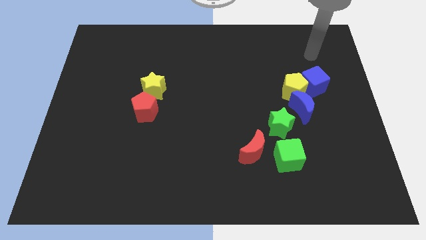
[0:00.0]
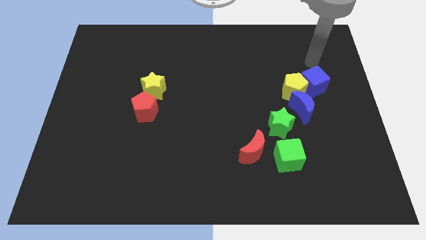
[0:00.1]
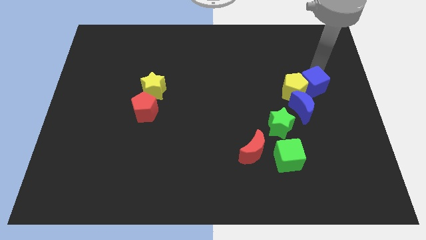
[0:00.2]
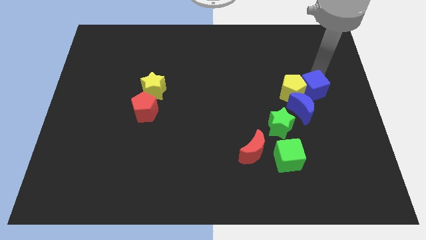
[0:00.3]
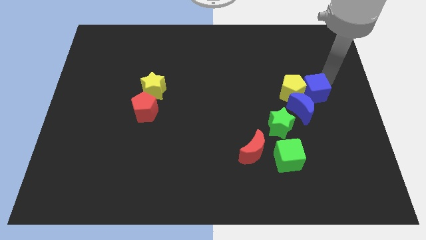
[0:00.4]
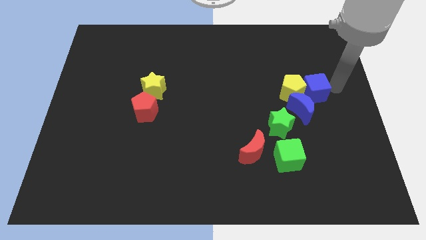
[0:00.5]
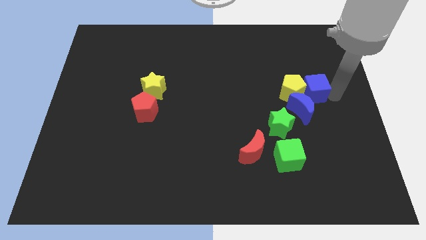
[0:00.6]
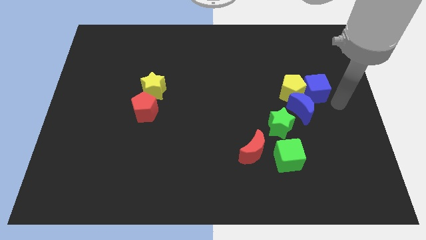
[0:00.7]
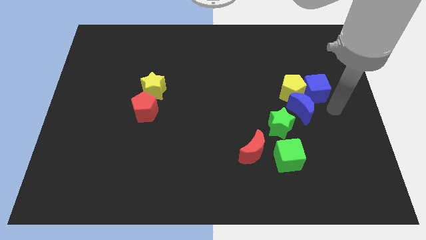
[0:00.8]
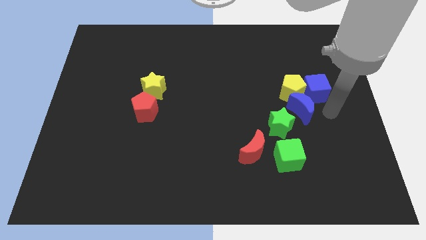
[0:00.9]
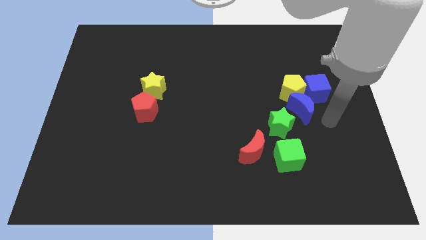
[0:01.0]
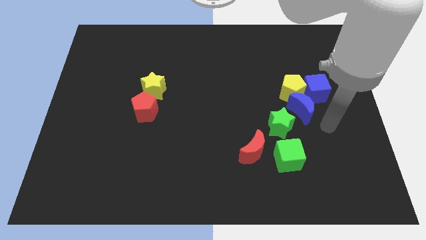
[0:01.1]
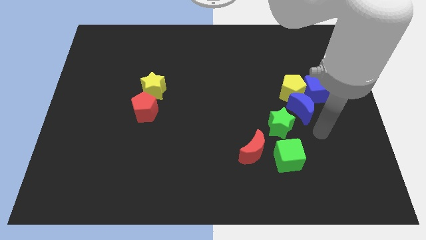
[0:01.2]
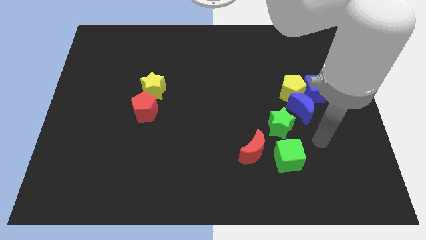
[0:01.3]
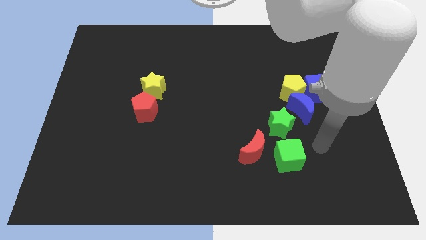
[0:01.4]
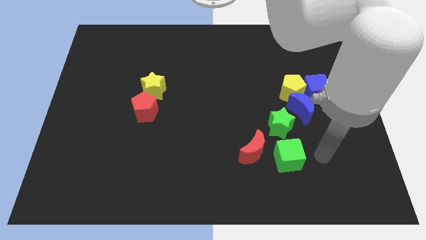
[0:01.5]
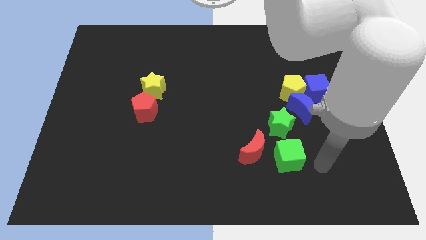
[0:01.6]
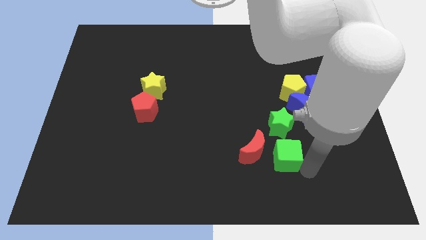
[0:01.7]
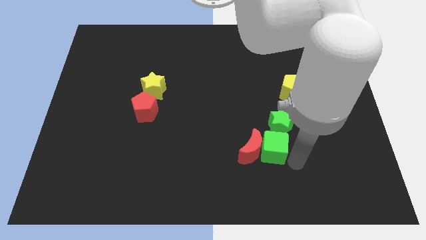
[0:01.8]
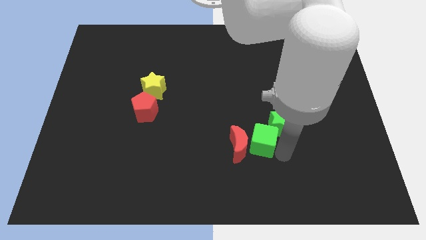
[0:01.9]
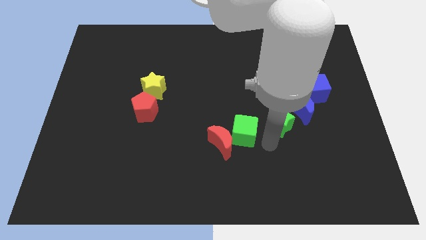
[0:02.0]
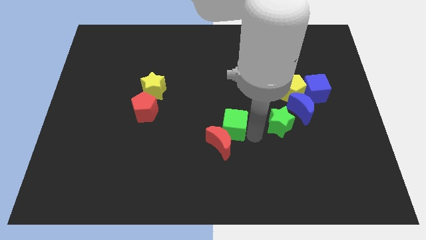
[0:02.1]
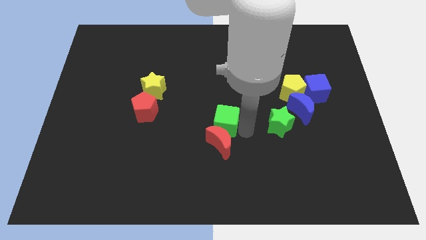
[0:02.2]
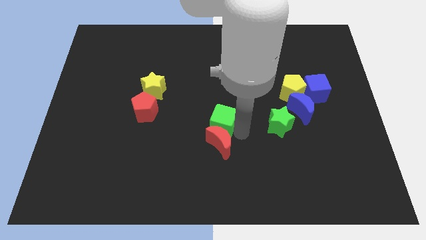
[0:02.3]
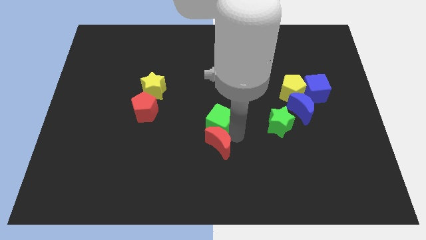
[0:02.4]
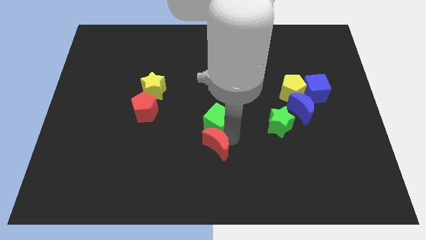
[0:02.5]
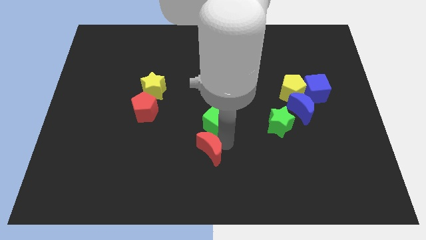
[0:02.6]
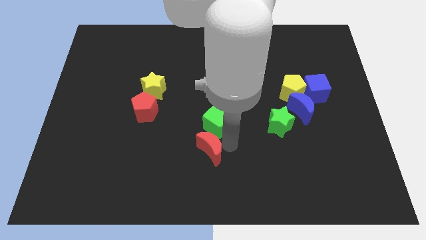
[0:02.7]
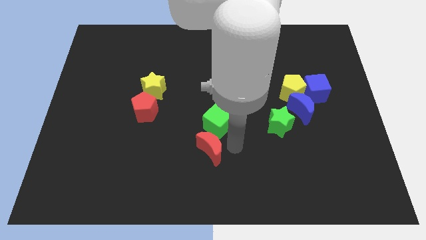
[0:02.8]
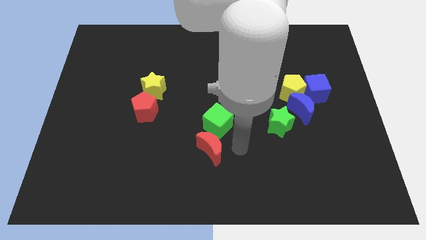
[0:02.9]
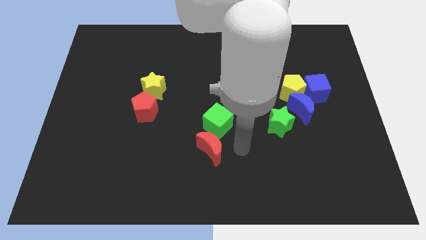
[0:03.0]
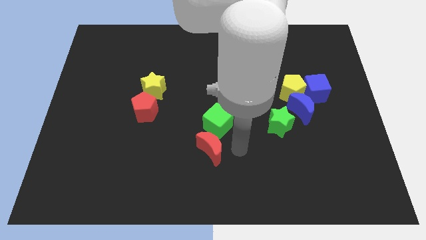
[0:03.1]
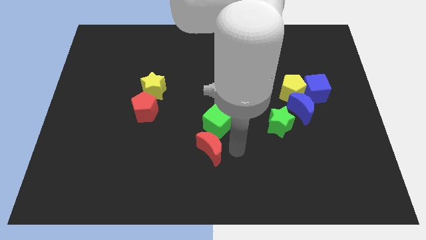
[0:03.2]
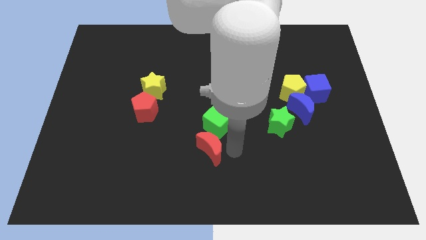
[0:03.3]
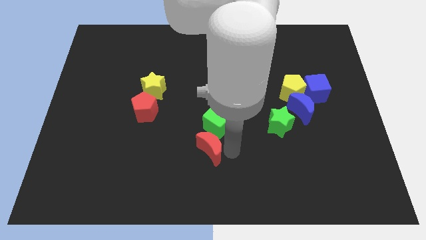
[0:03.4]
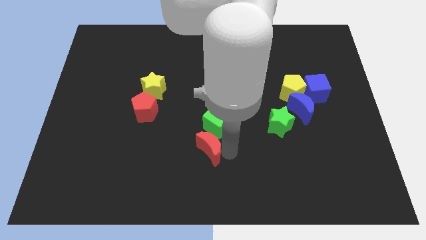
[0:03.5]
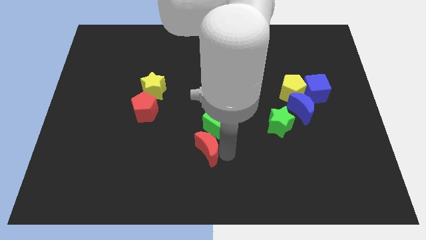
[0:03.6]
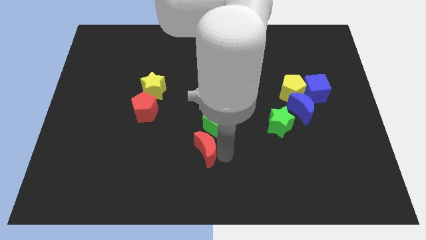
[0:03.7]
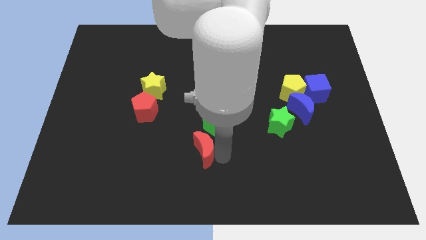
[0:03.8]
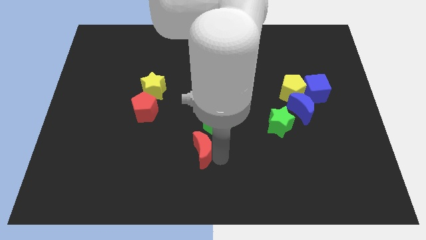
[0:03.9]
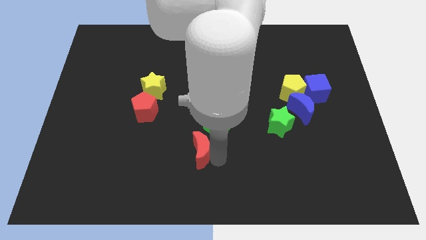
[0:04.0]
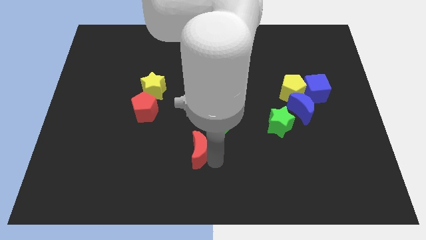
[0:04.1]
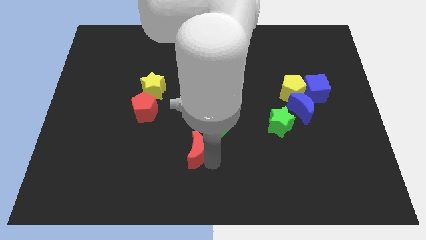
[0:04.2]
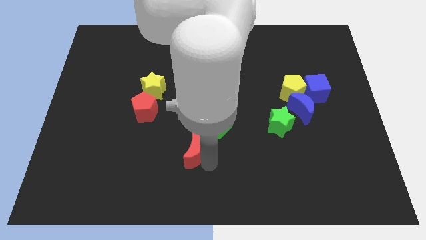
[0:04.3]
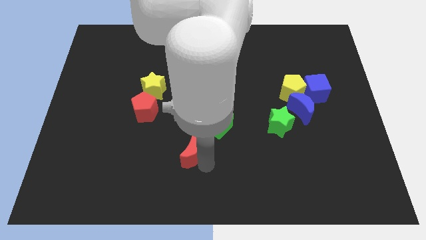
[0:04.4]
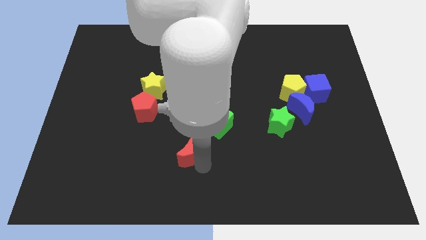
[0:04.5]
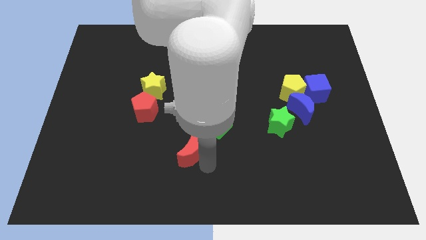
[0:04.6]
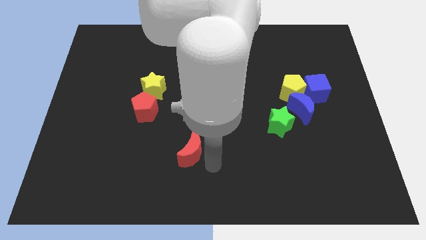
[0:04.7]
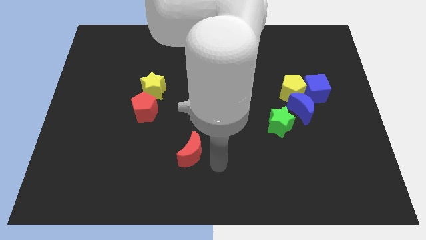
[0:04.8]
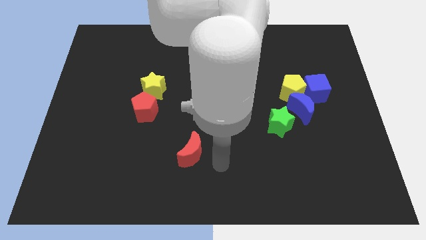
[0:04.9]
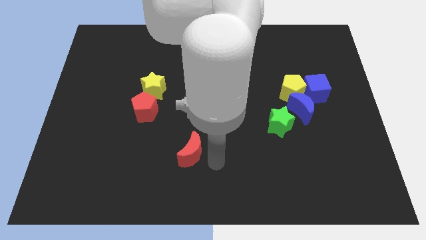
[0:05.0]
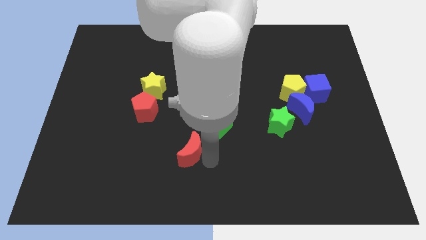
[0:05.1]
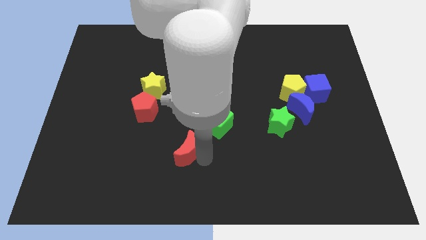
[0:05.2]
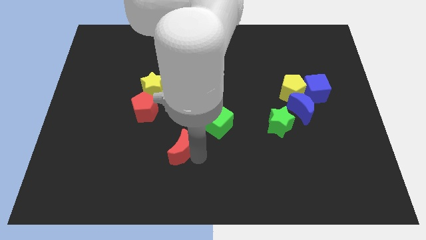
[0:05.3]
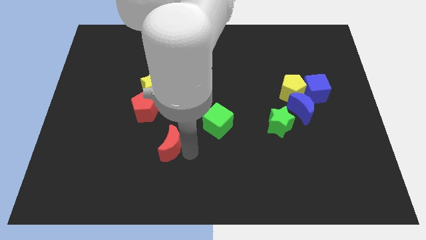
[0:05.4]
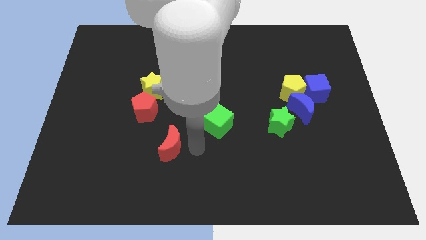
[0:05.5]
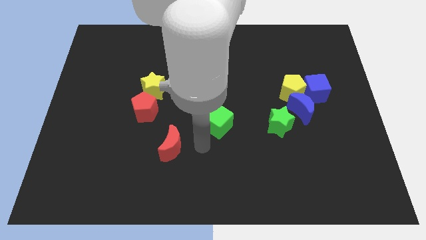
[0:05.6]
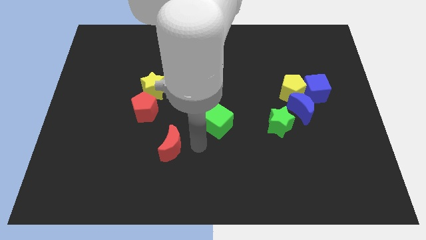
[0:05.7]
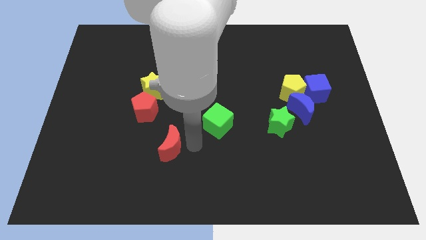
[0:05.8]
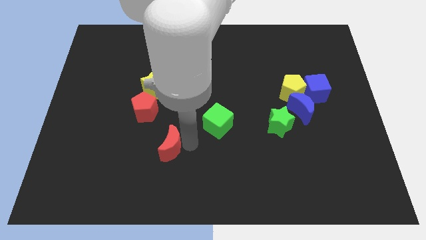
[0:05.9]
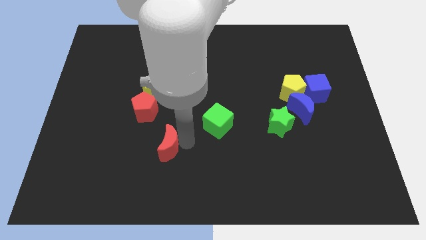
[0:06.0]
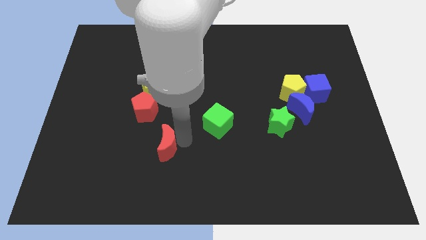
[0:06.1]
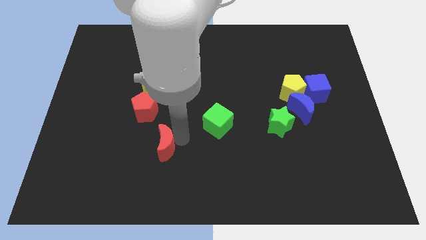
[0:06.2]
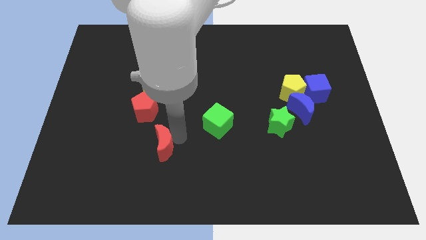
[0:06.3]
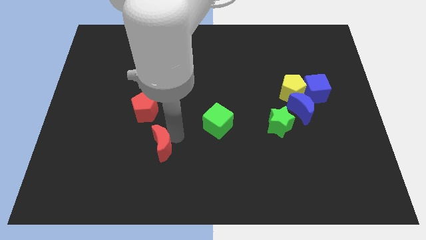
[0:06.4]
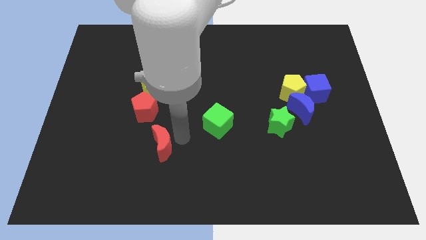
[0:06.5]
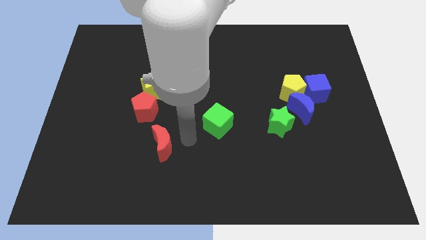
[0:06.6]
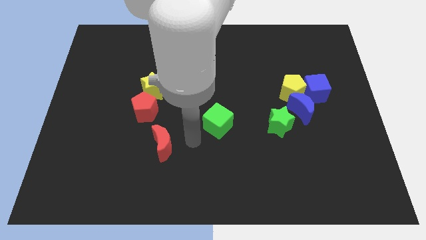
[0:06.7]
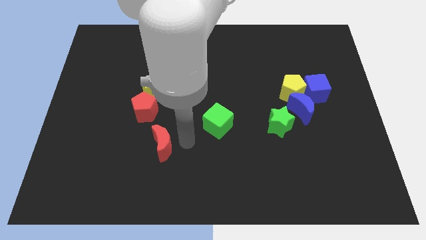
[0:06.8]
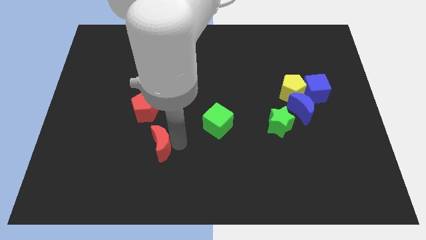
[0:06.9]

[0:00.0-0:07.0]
push the red moon left

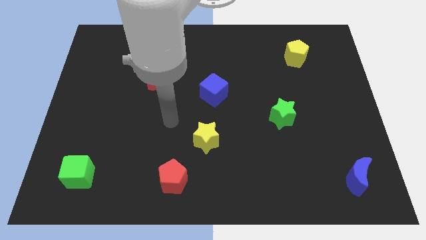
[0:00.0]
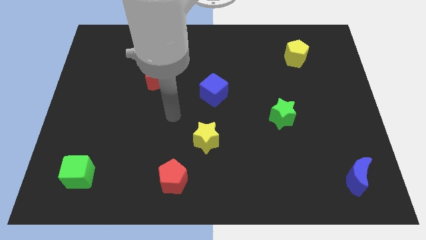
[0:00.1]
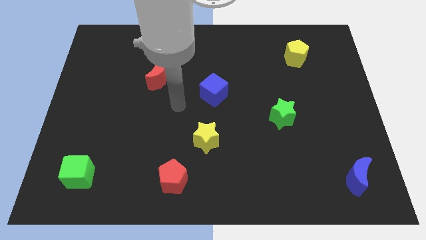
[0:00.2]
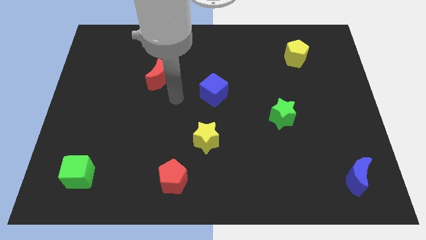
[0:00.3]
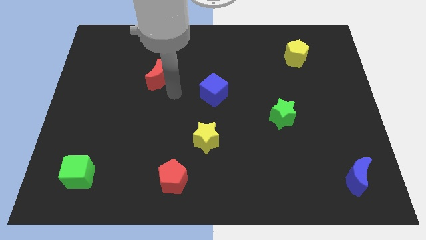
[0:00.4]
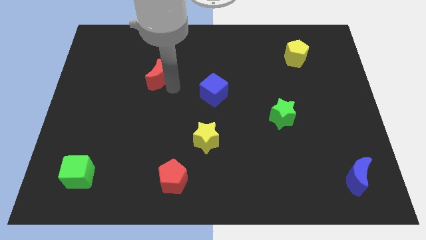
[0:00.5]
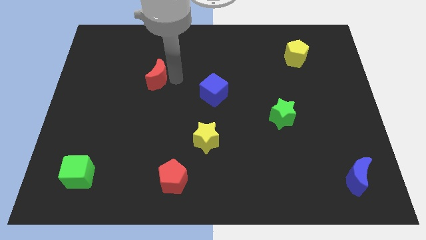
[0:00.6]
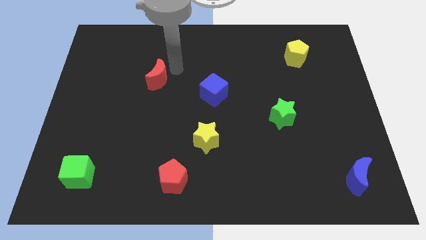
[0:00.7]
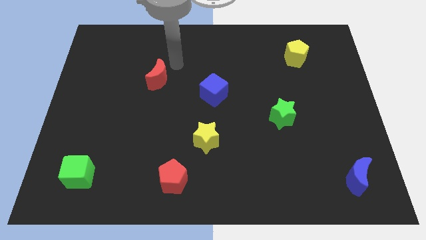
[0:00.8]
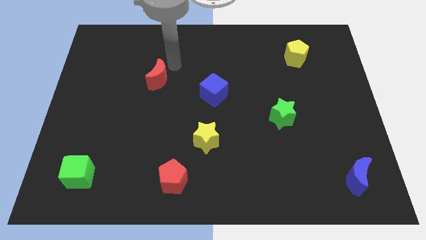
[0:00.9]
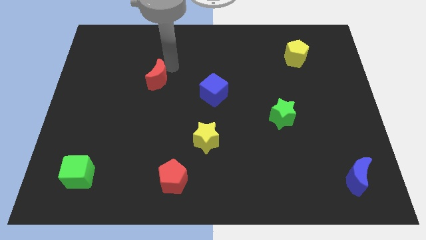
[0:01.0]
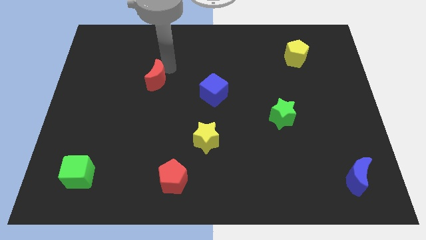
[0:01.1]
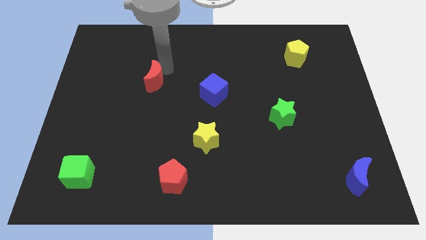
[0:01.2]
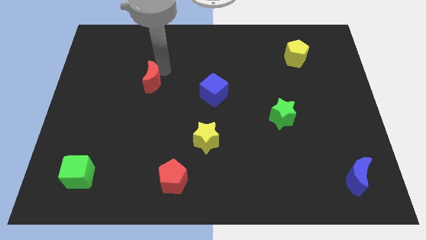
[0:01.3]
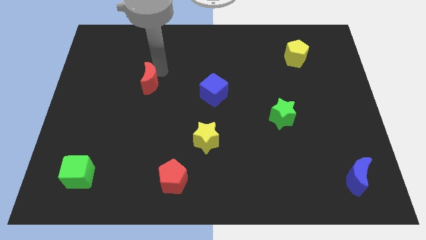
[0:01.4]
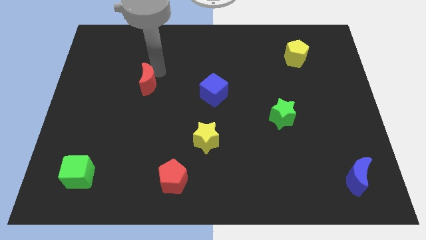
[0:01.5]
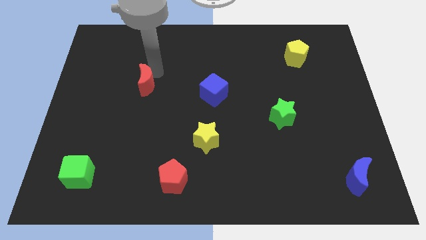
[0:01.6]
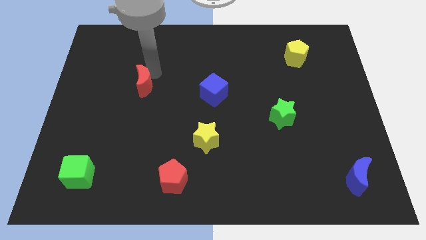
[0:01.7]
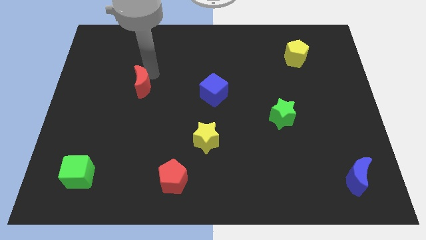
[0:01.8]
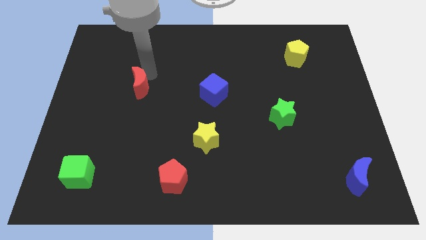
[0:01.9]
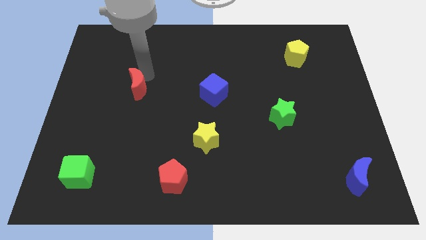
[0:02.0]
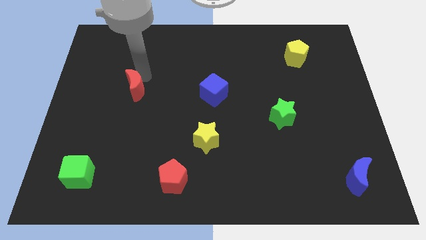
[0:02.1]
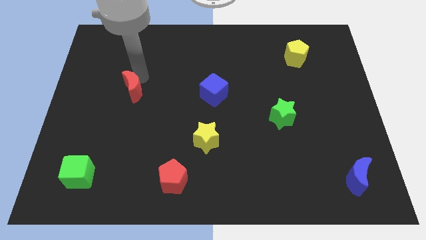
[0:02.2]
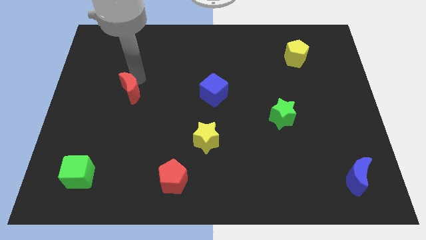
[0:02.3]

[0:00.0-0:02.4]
move the red moon a little bit downwards and to the left diagonally
